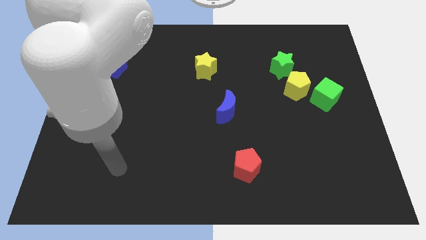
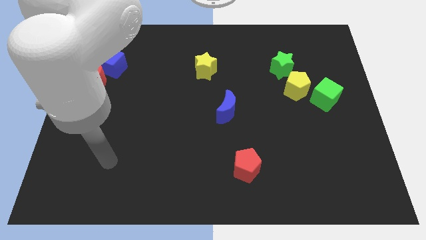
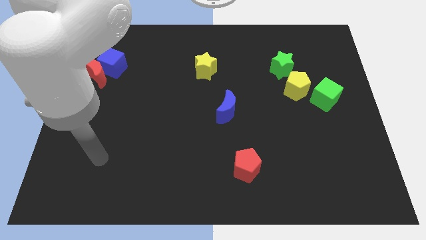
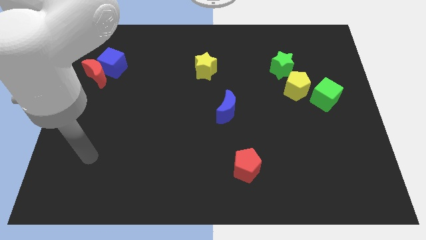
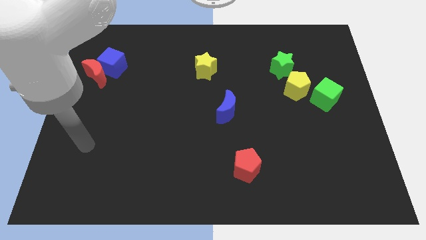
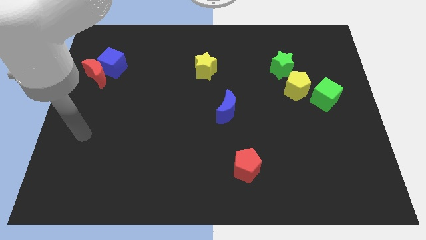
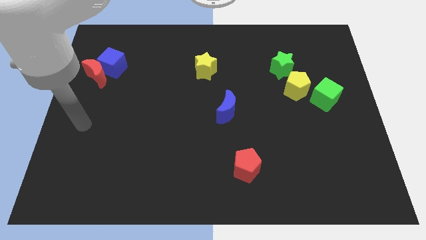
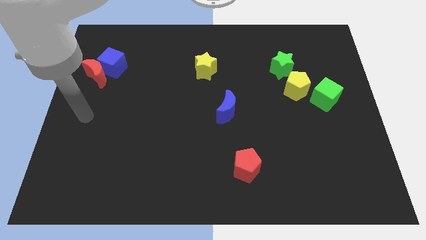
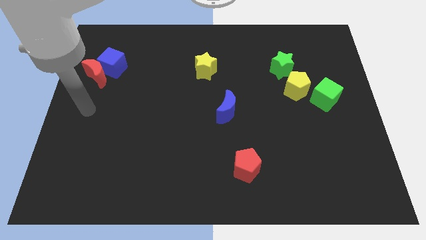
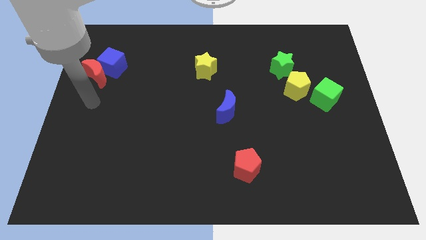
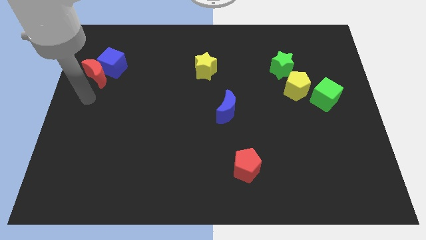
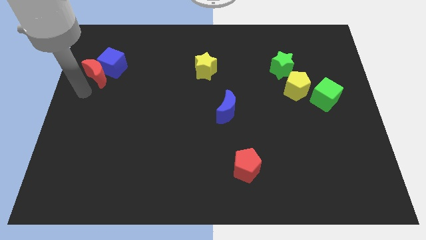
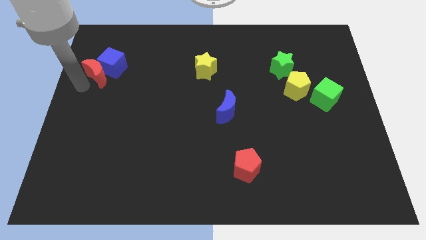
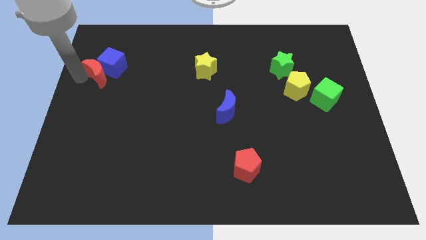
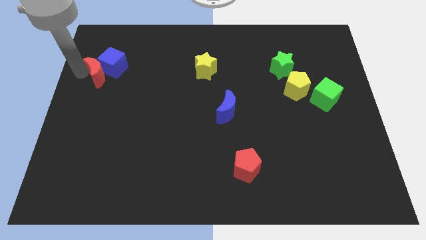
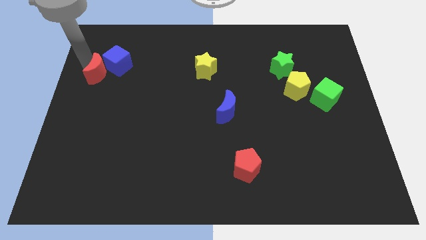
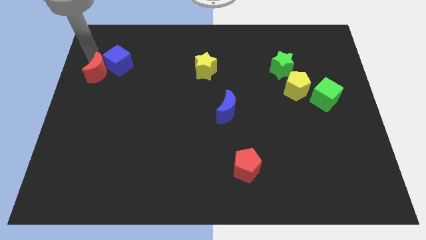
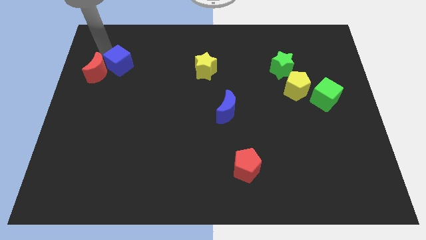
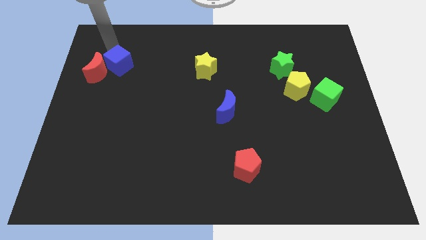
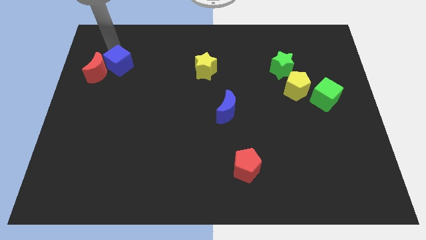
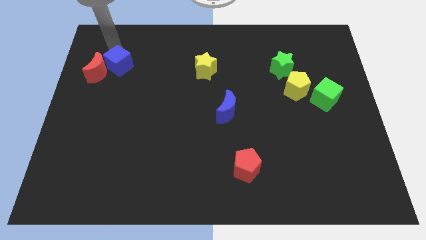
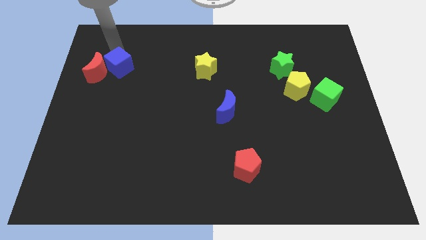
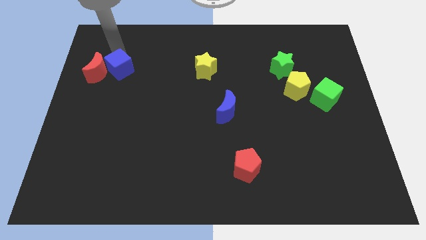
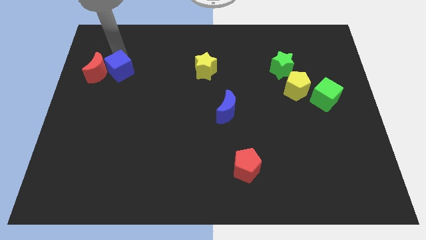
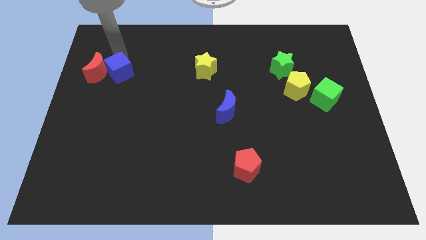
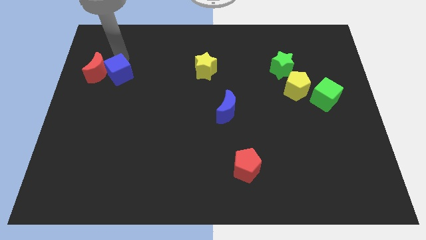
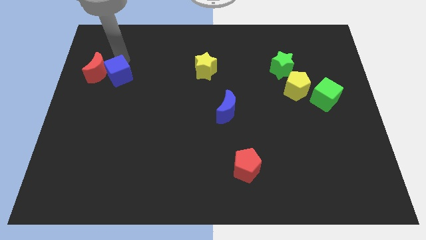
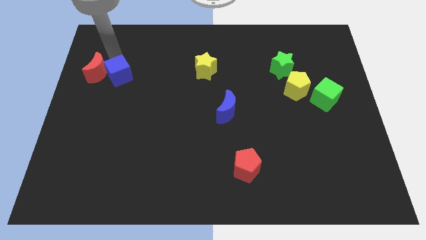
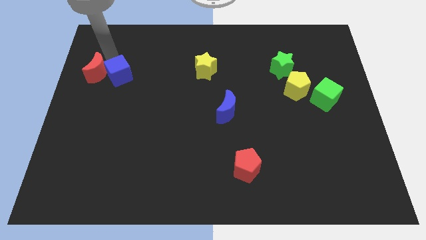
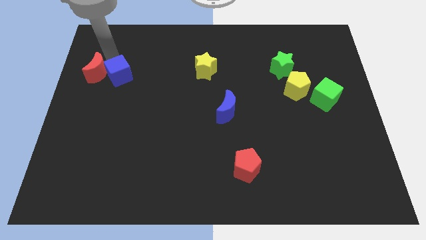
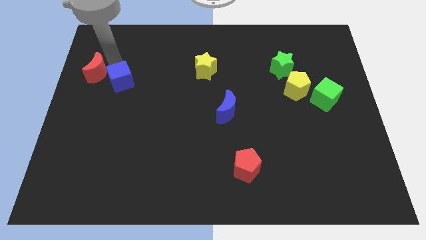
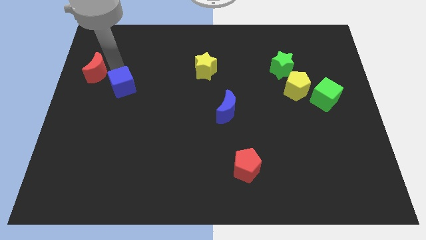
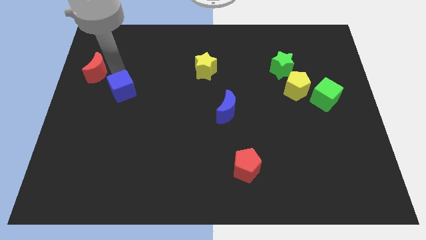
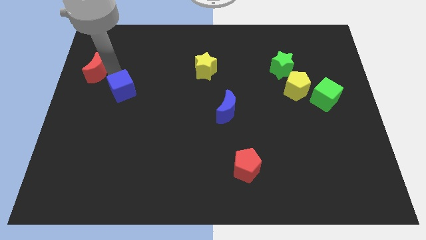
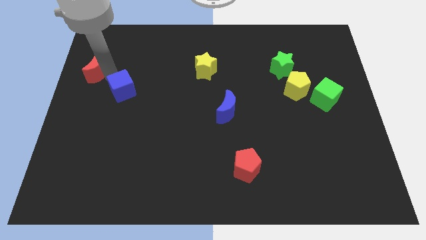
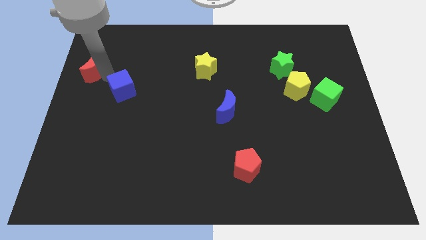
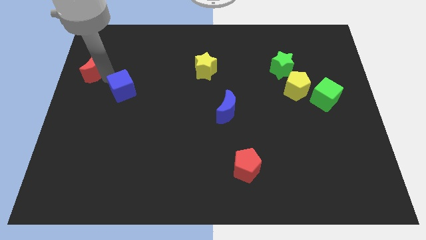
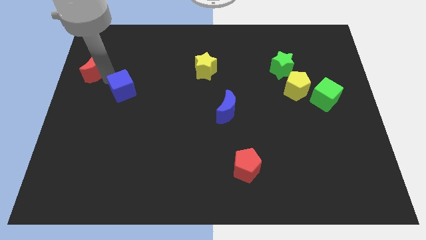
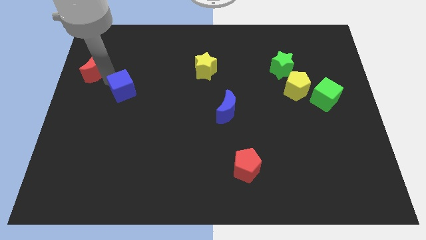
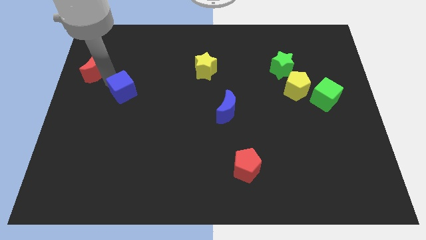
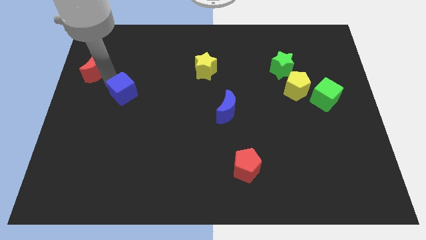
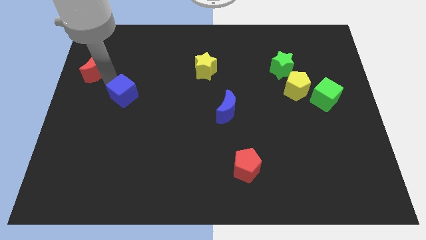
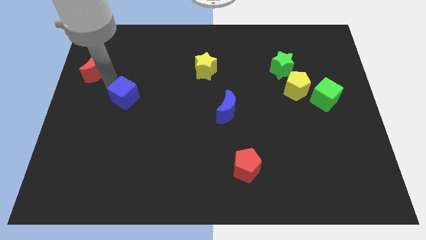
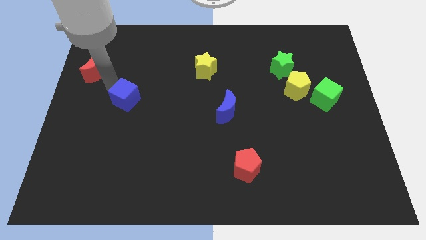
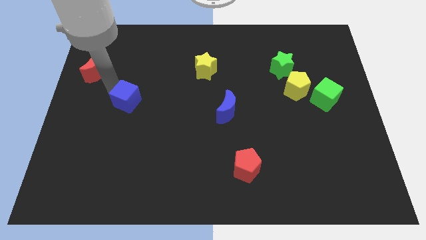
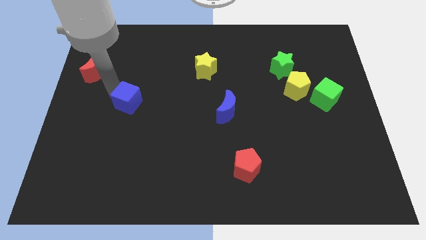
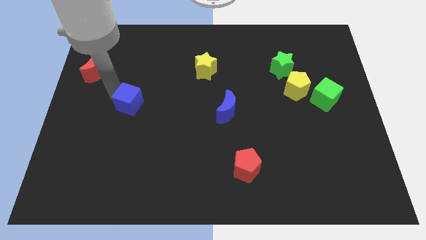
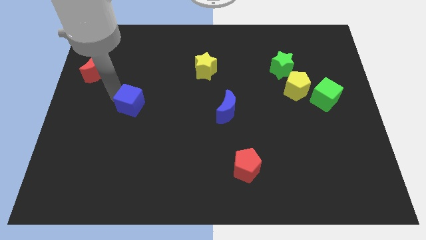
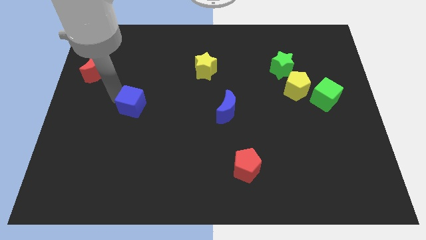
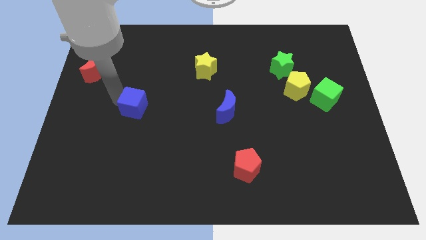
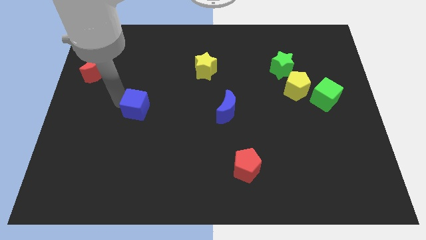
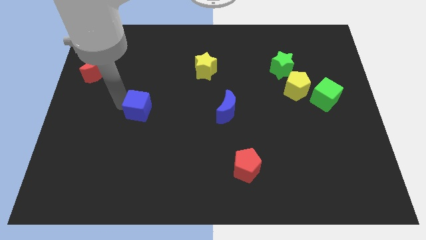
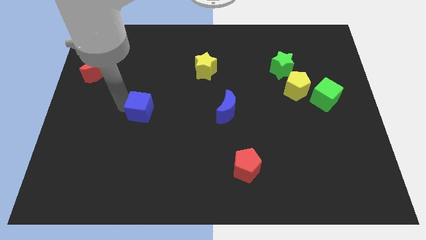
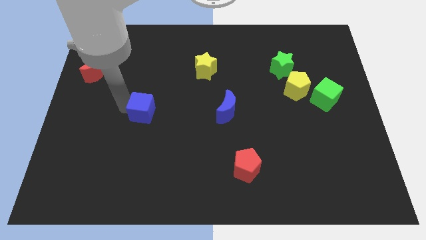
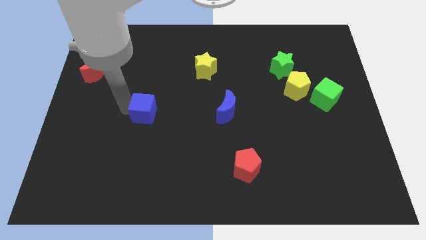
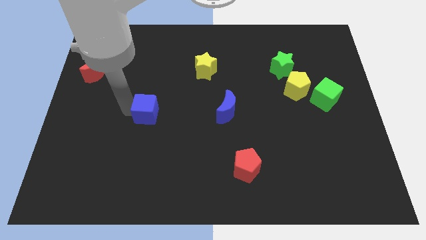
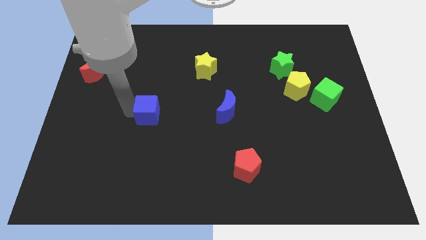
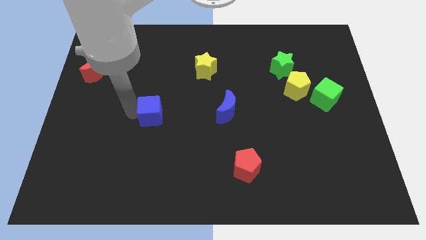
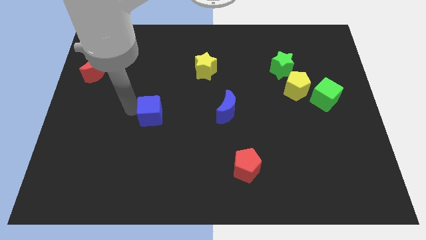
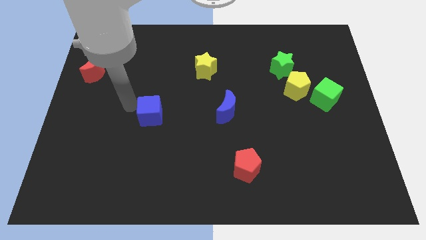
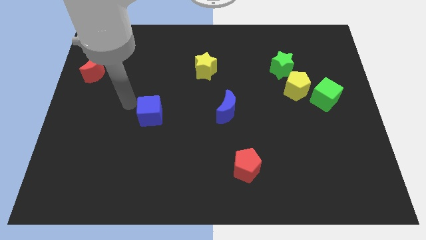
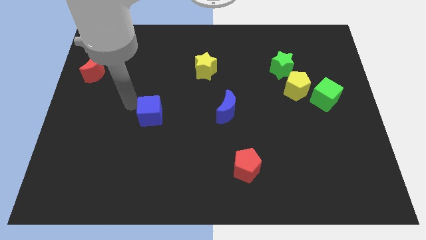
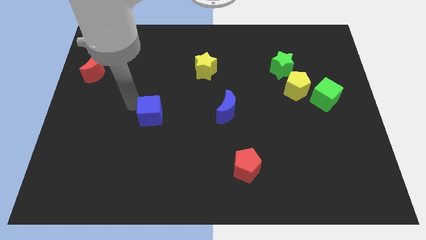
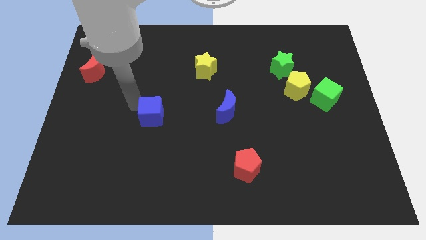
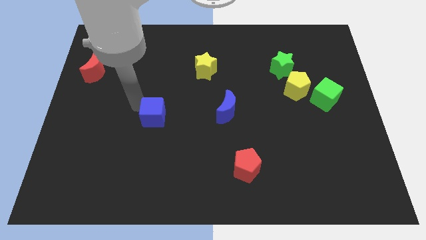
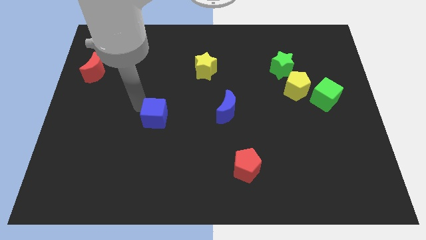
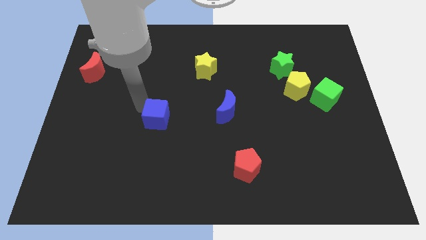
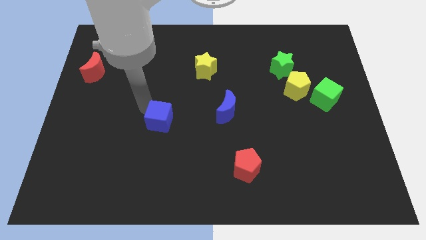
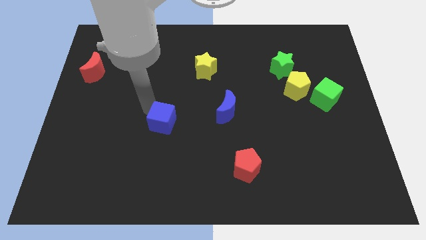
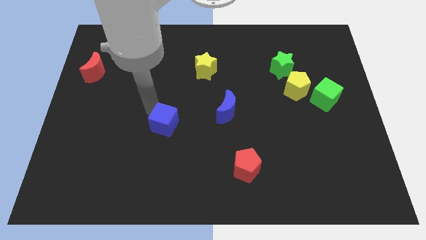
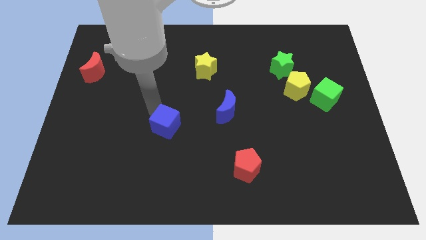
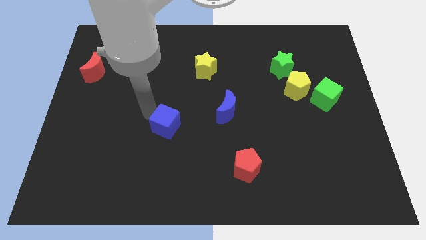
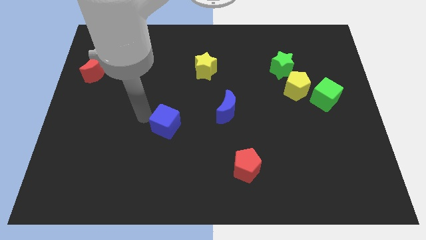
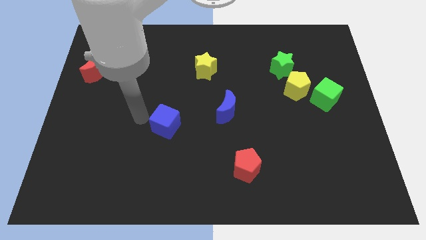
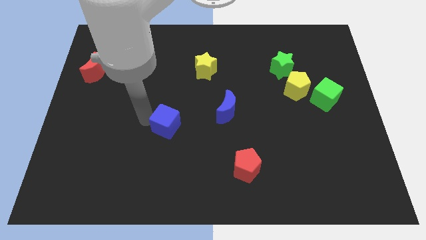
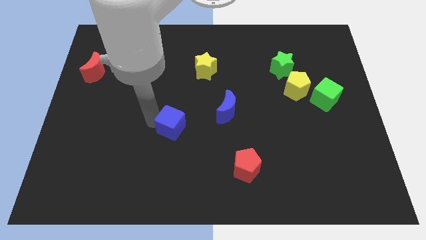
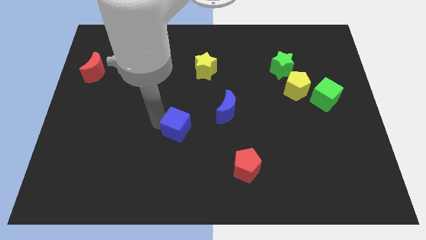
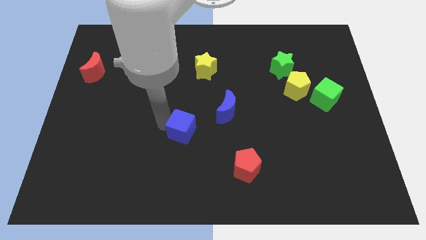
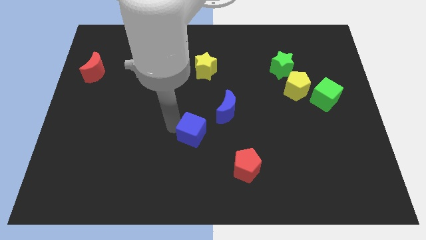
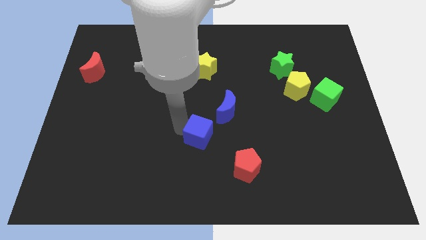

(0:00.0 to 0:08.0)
move the blue cube diagonally up and to the left of the red pentagon
